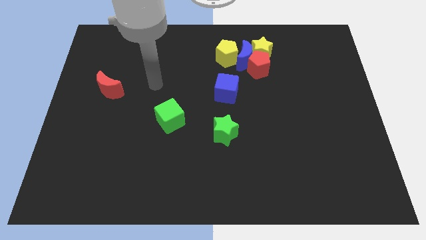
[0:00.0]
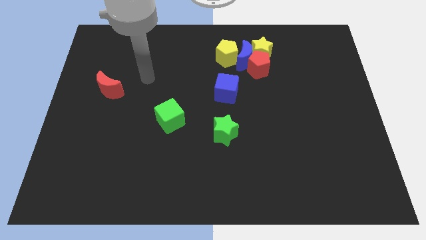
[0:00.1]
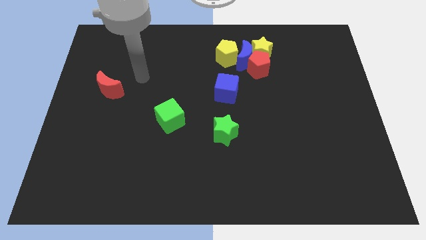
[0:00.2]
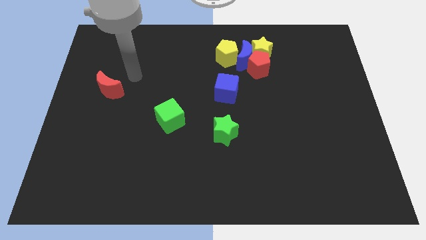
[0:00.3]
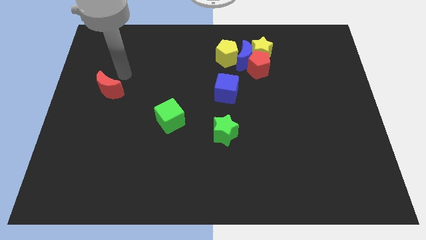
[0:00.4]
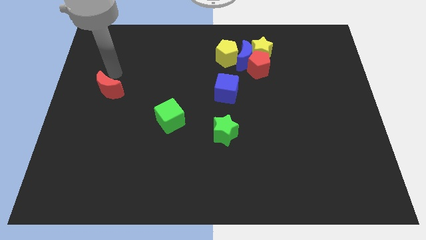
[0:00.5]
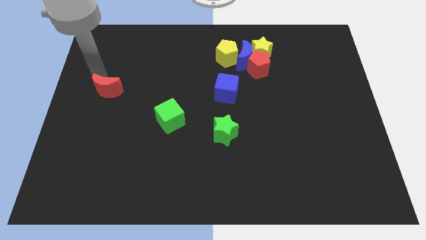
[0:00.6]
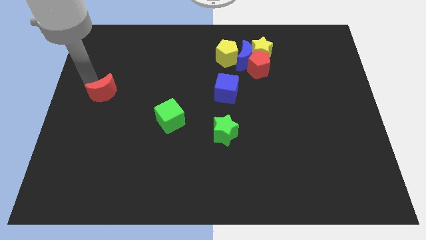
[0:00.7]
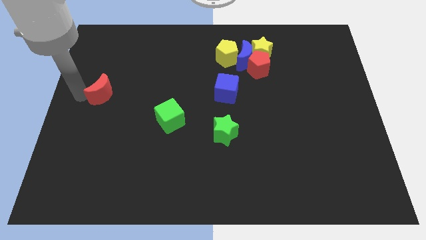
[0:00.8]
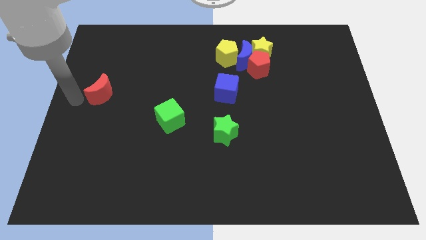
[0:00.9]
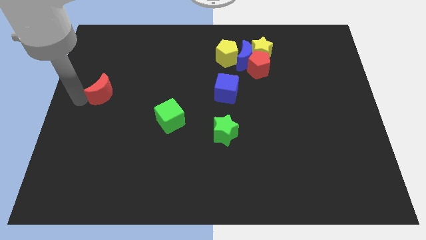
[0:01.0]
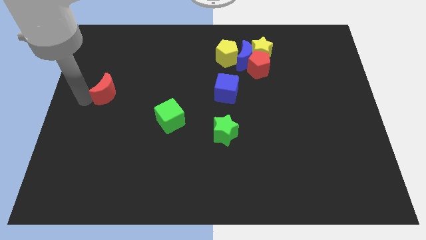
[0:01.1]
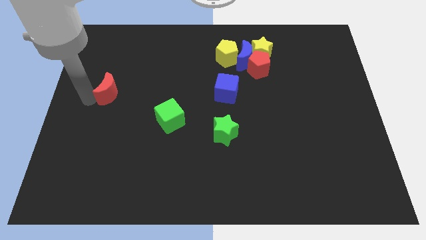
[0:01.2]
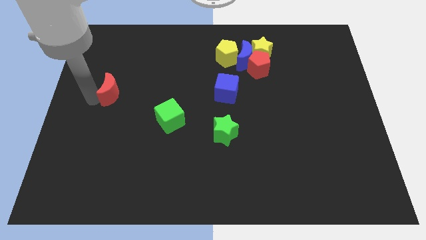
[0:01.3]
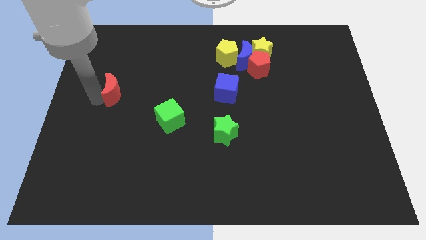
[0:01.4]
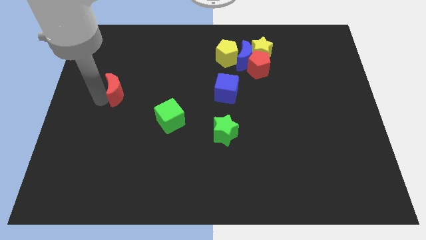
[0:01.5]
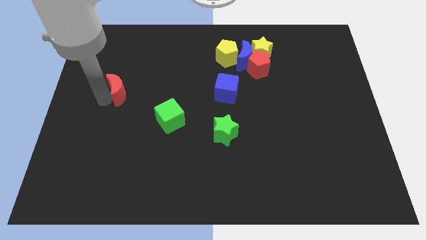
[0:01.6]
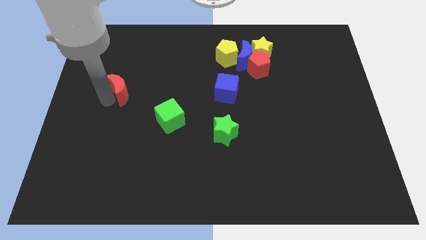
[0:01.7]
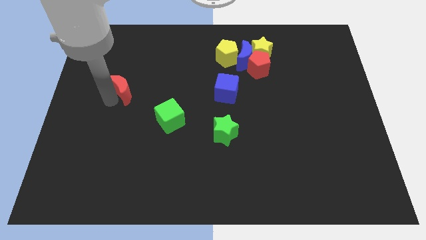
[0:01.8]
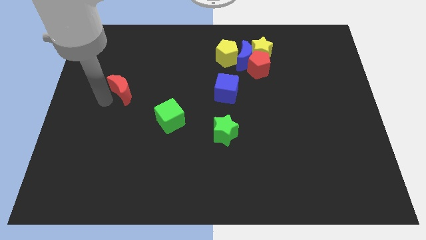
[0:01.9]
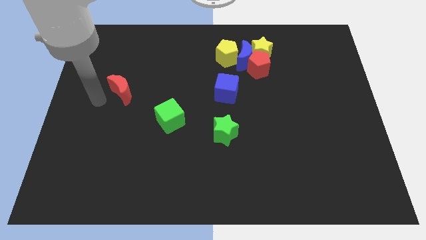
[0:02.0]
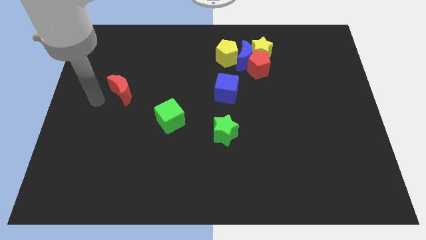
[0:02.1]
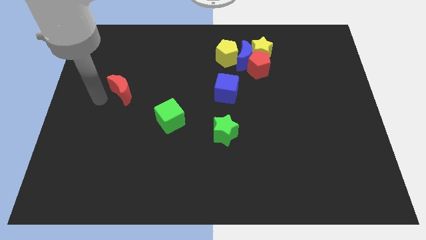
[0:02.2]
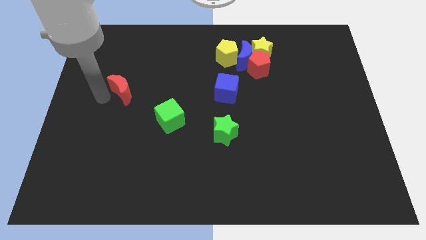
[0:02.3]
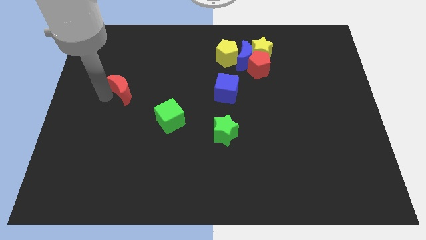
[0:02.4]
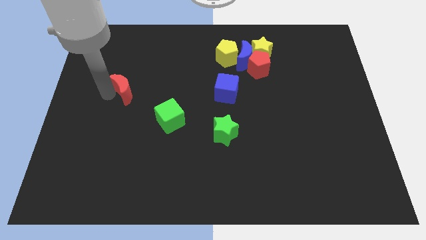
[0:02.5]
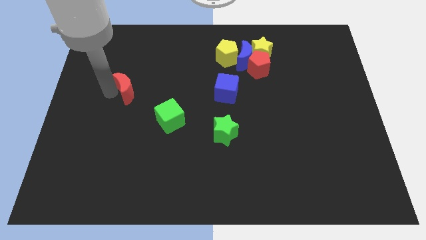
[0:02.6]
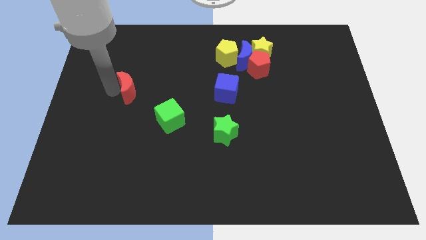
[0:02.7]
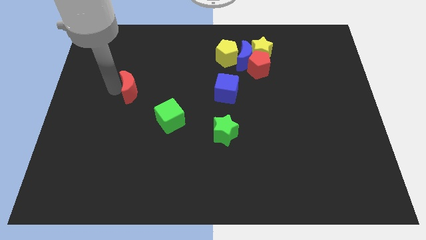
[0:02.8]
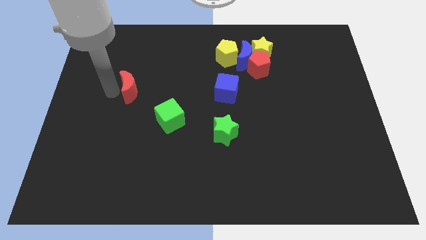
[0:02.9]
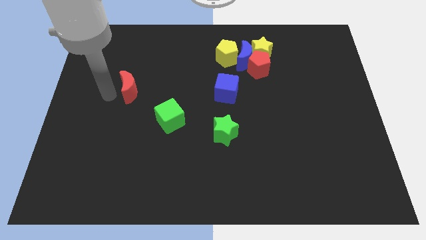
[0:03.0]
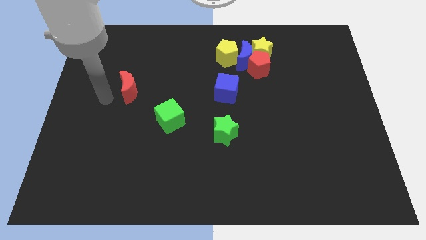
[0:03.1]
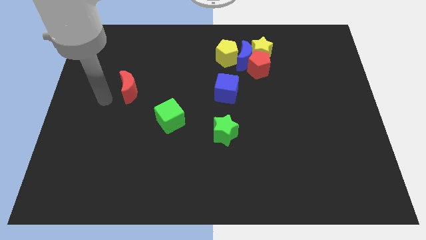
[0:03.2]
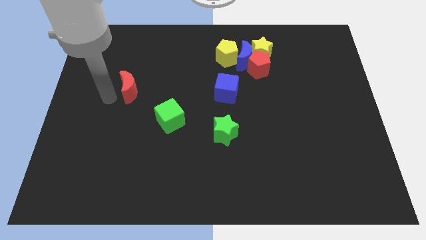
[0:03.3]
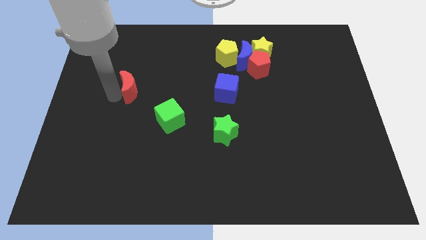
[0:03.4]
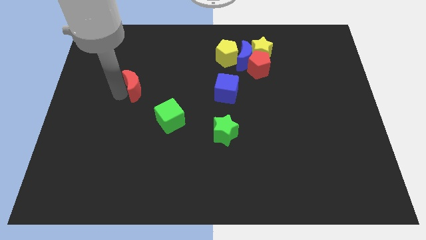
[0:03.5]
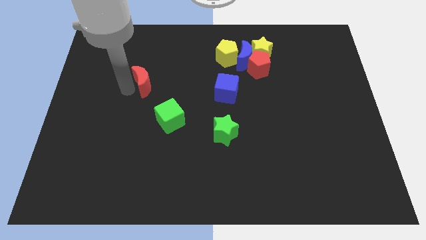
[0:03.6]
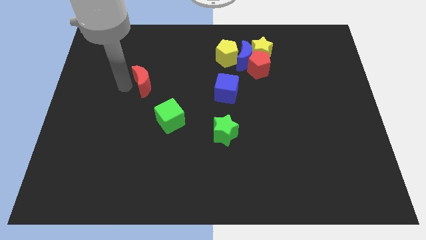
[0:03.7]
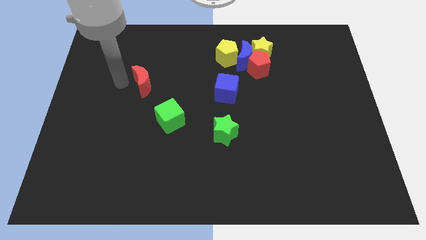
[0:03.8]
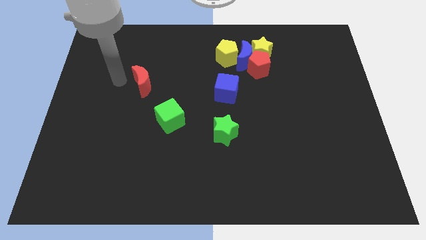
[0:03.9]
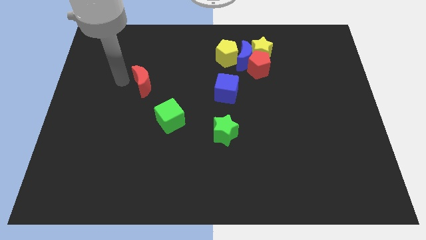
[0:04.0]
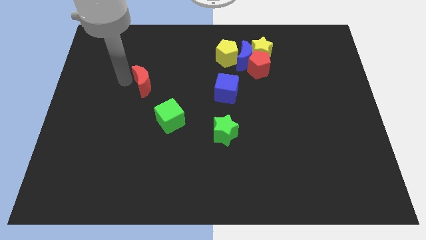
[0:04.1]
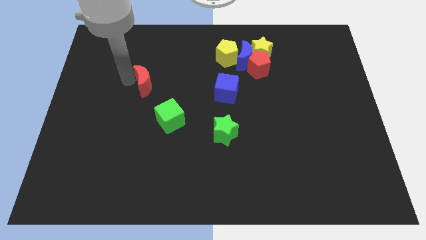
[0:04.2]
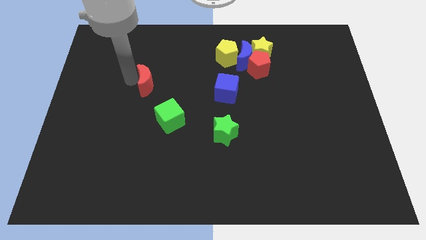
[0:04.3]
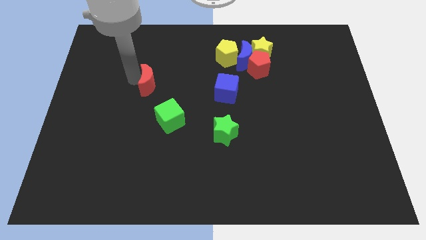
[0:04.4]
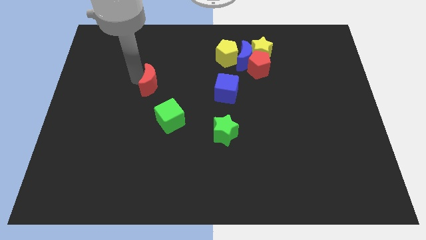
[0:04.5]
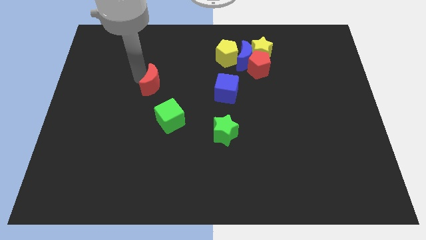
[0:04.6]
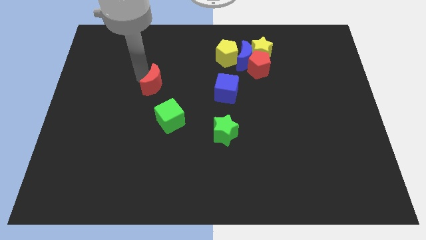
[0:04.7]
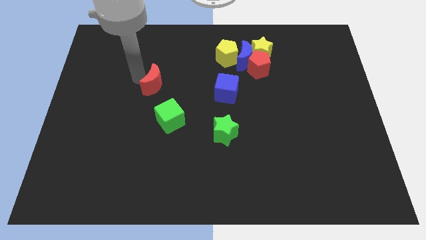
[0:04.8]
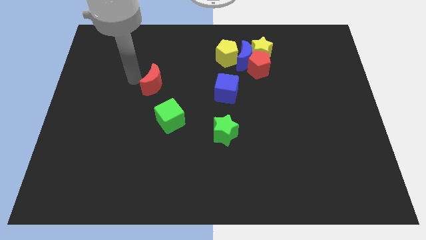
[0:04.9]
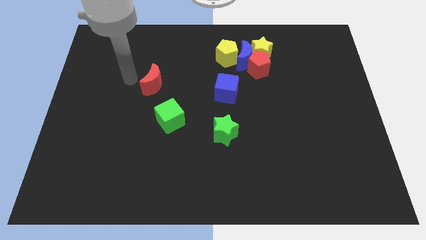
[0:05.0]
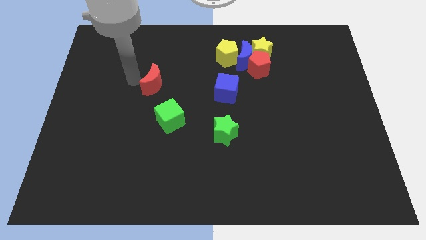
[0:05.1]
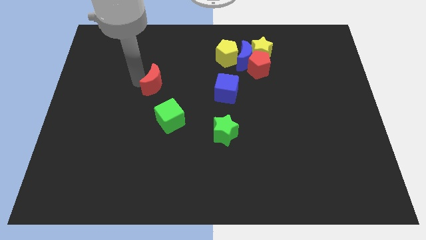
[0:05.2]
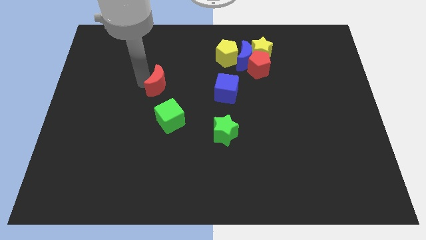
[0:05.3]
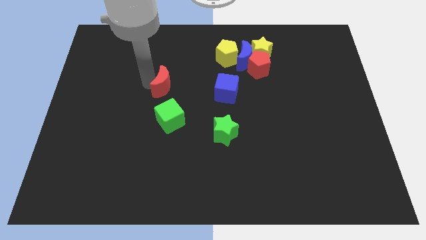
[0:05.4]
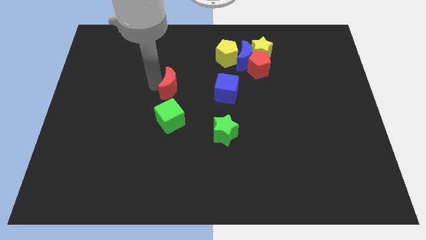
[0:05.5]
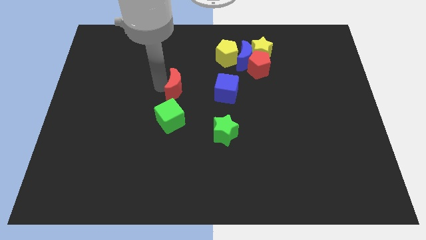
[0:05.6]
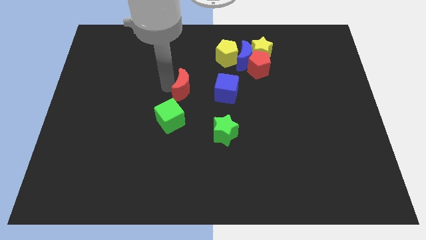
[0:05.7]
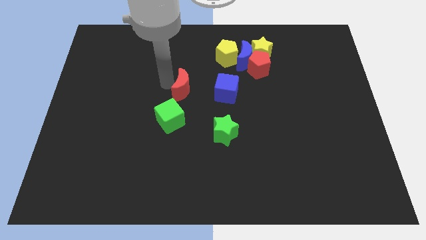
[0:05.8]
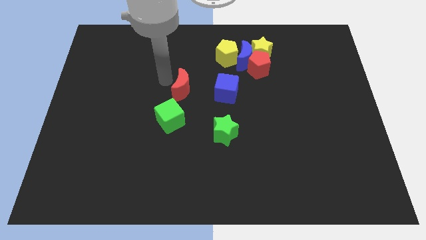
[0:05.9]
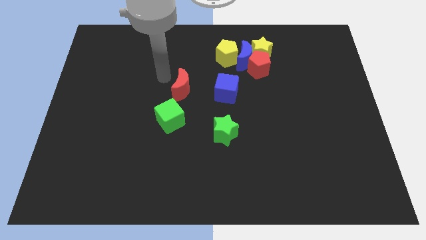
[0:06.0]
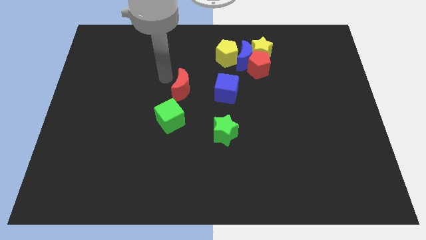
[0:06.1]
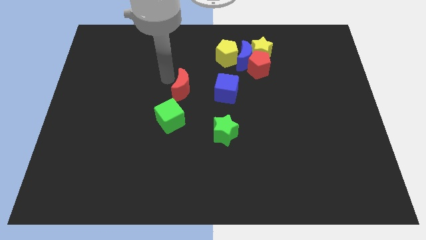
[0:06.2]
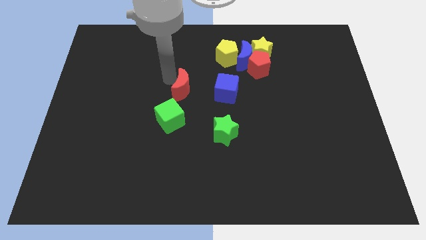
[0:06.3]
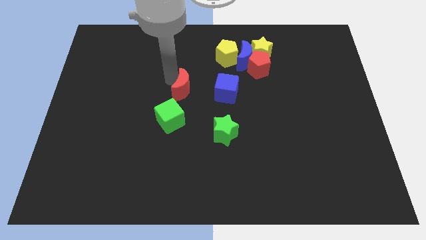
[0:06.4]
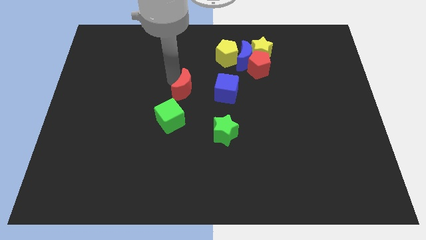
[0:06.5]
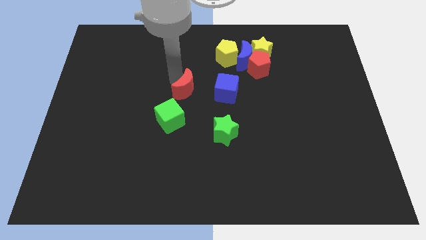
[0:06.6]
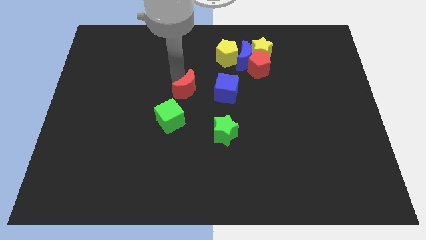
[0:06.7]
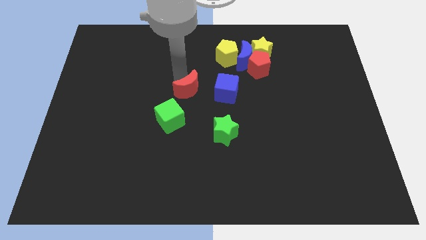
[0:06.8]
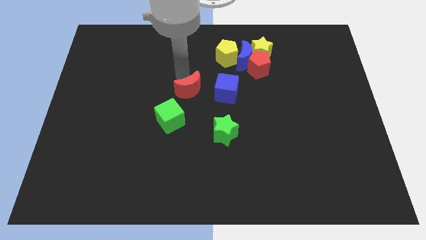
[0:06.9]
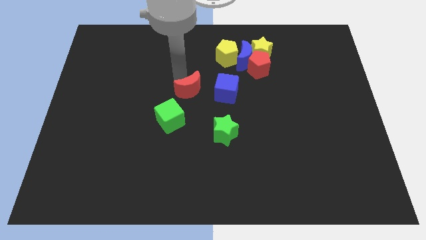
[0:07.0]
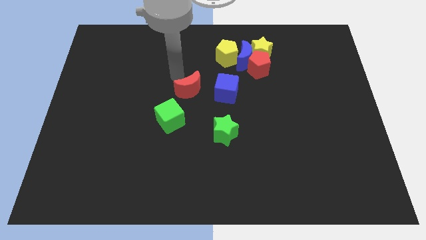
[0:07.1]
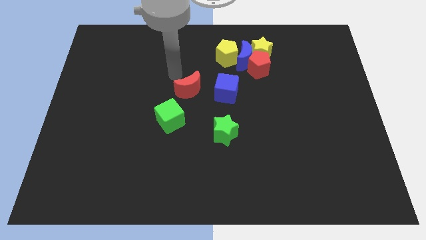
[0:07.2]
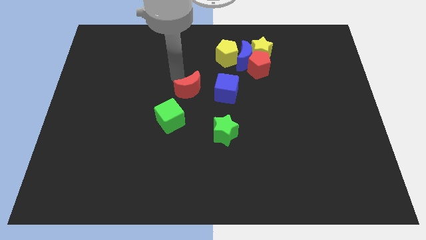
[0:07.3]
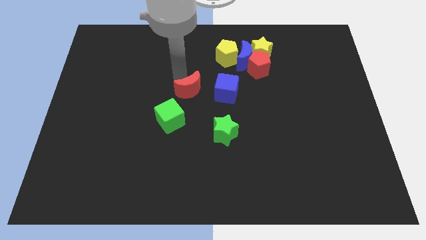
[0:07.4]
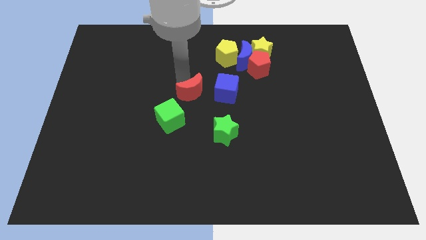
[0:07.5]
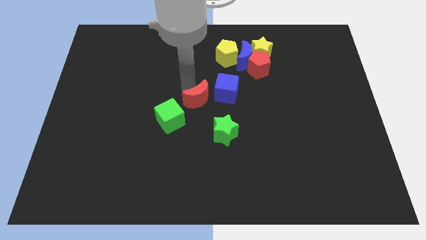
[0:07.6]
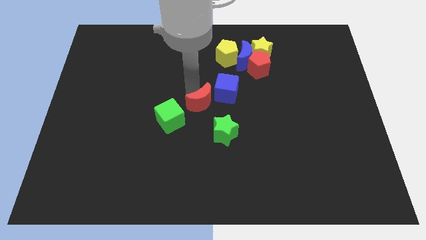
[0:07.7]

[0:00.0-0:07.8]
slide the red moon right of the green cube
